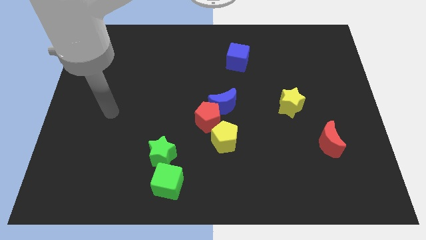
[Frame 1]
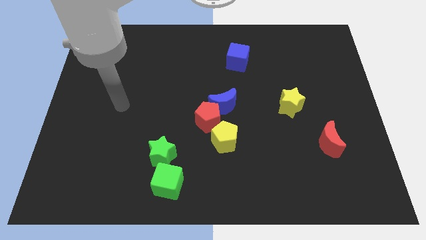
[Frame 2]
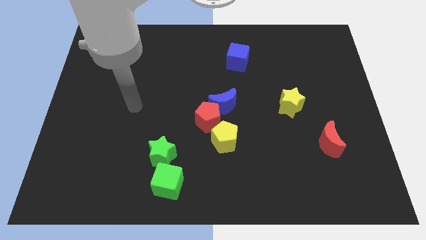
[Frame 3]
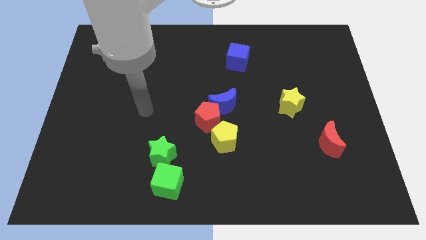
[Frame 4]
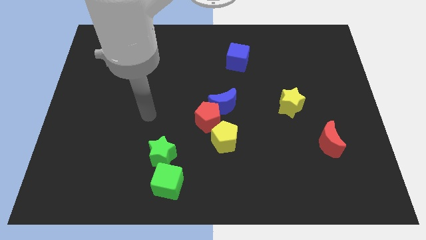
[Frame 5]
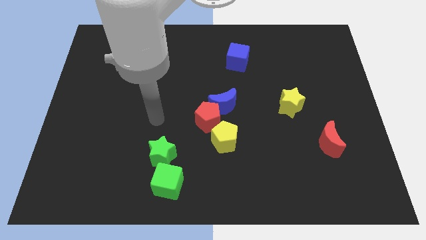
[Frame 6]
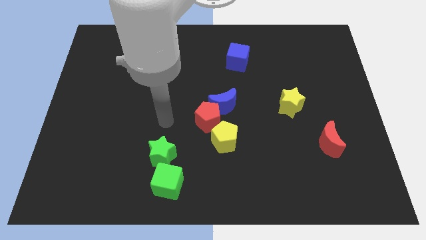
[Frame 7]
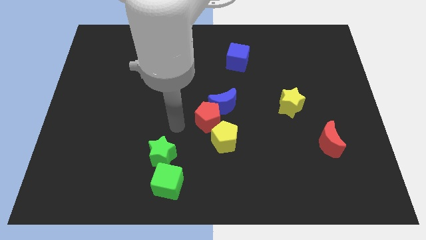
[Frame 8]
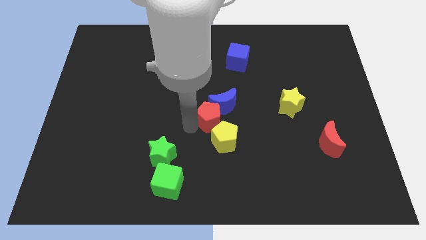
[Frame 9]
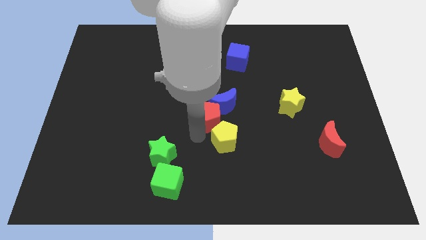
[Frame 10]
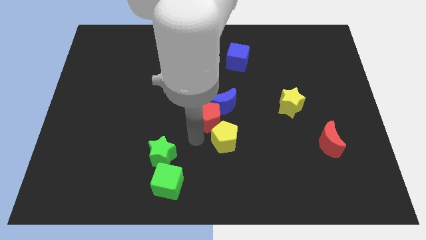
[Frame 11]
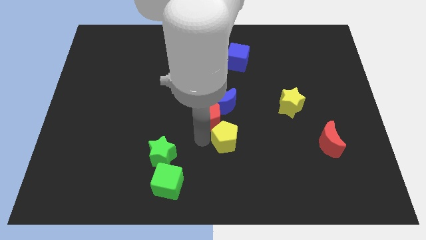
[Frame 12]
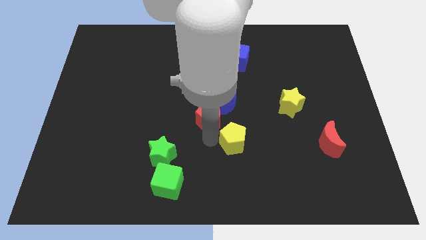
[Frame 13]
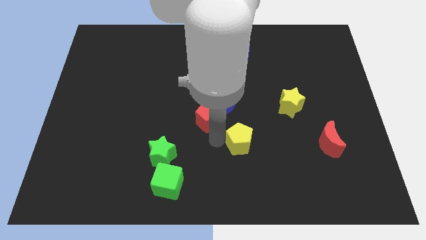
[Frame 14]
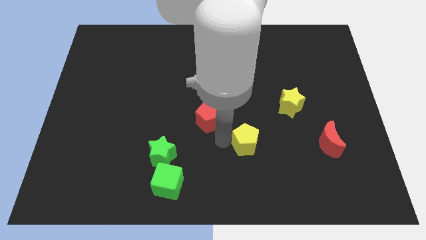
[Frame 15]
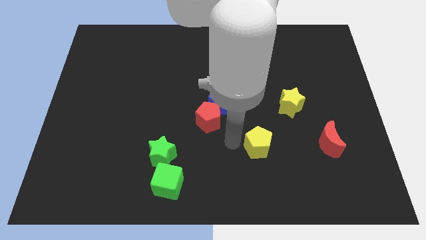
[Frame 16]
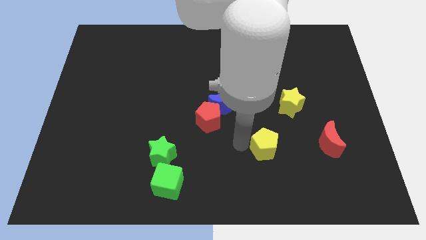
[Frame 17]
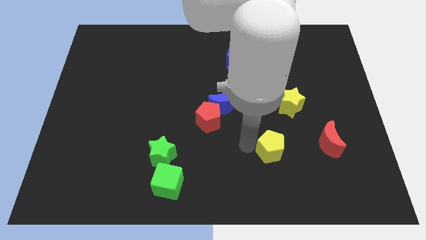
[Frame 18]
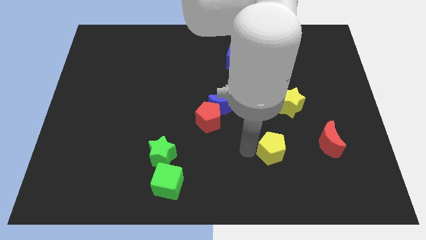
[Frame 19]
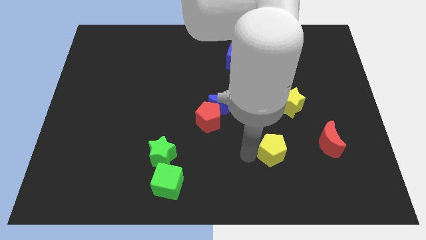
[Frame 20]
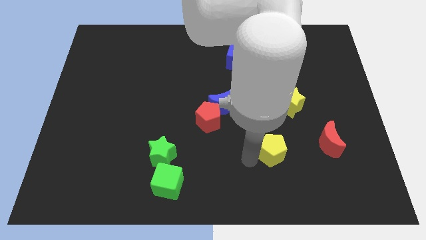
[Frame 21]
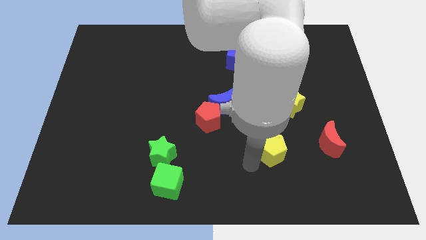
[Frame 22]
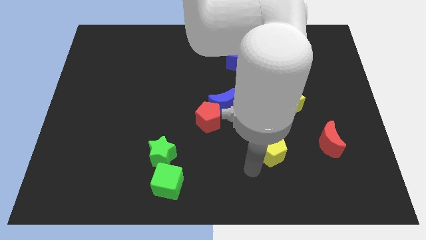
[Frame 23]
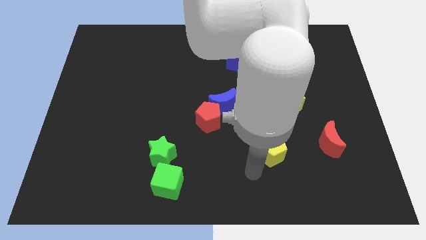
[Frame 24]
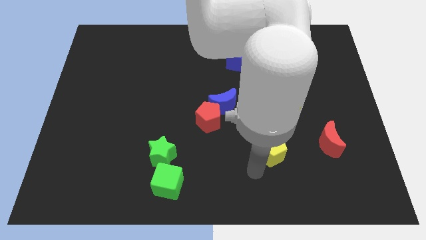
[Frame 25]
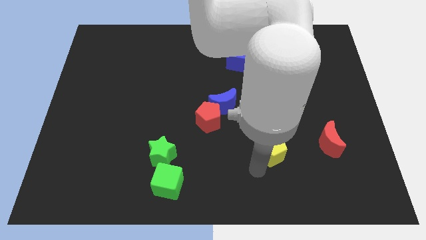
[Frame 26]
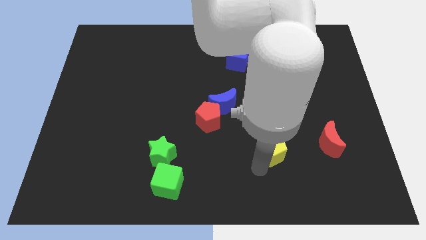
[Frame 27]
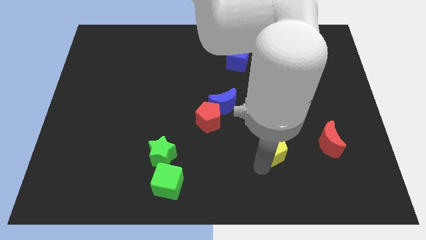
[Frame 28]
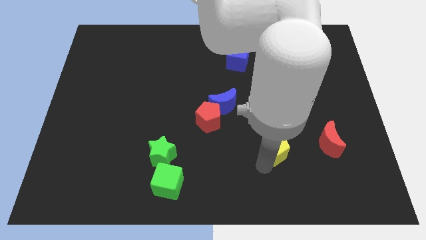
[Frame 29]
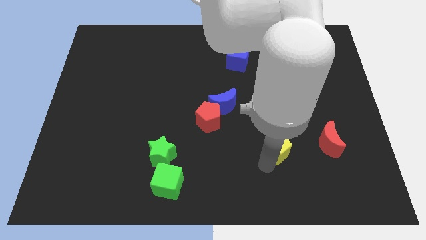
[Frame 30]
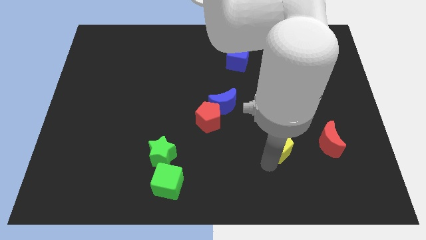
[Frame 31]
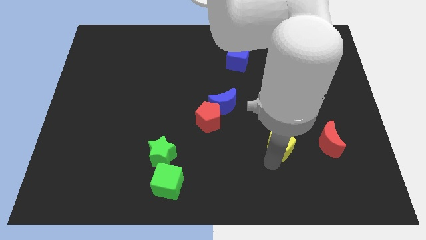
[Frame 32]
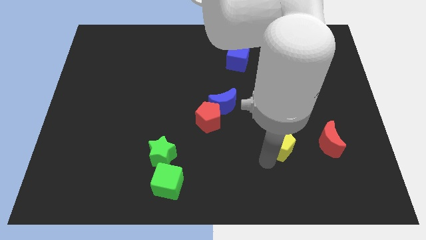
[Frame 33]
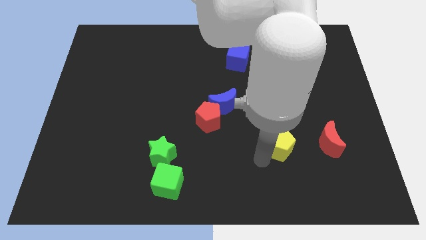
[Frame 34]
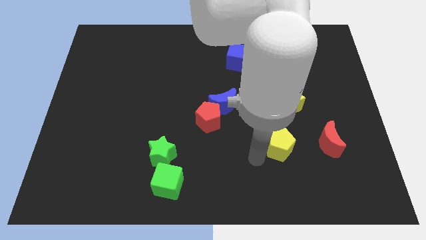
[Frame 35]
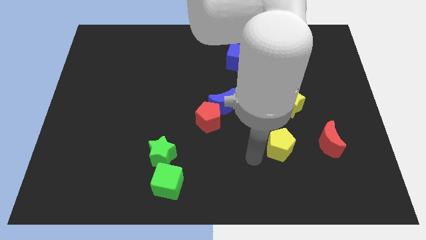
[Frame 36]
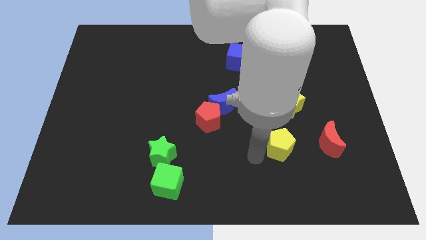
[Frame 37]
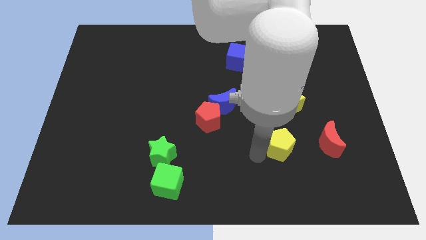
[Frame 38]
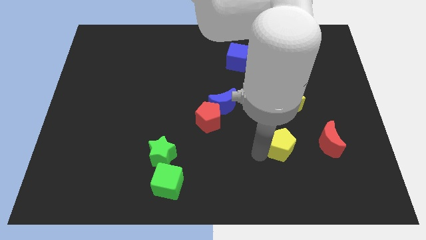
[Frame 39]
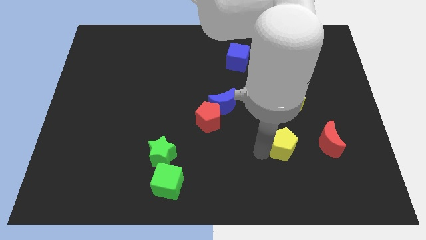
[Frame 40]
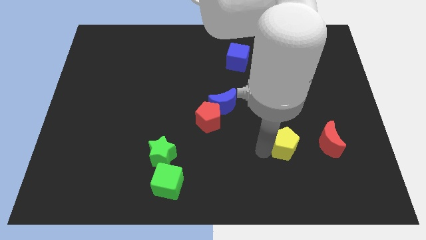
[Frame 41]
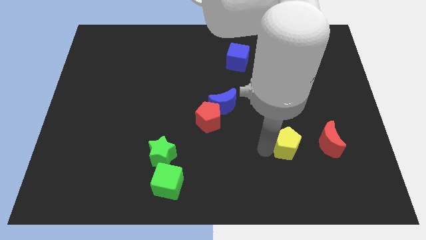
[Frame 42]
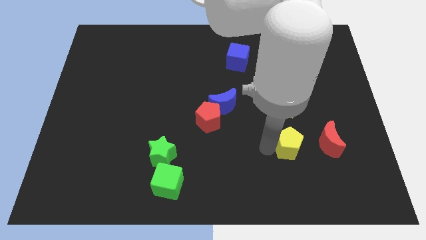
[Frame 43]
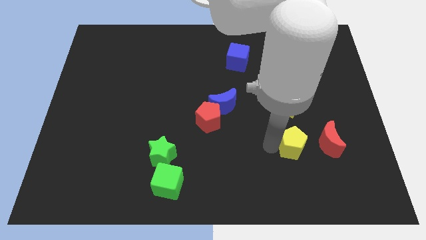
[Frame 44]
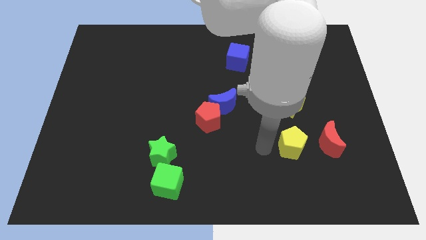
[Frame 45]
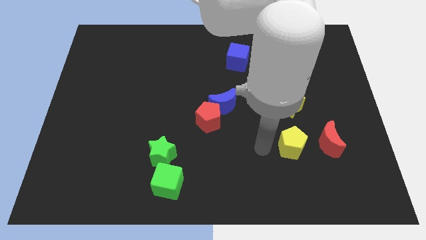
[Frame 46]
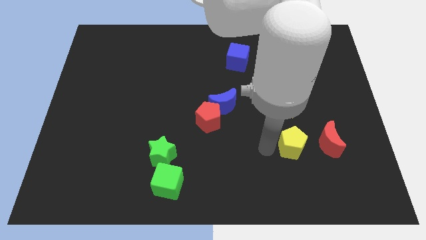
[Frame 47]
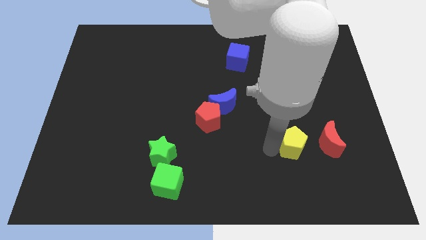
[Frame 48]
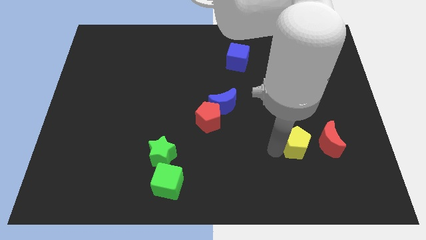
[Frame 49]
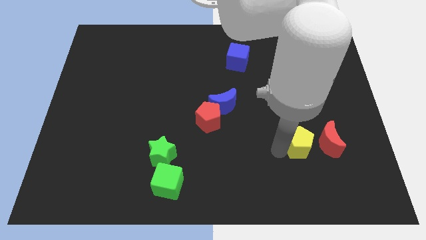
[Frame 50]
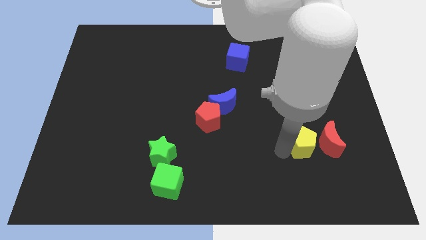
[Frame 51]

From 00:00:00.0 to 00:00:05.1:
put the yellow pentagon to the red moon

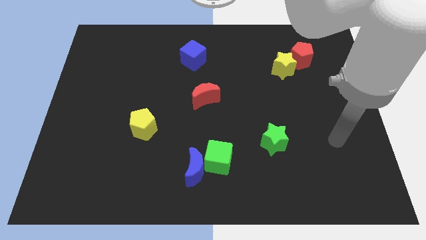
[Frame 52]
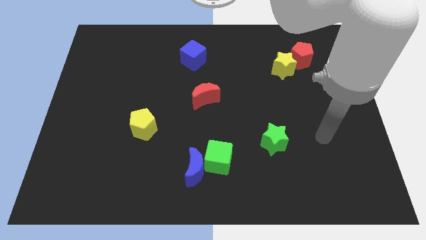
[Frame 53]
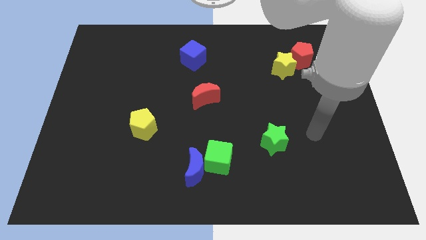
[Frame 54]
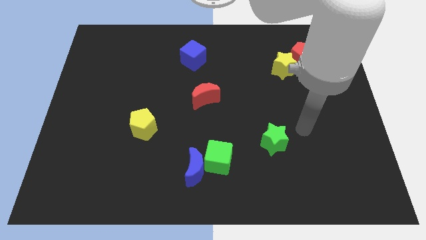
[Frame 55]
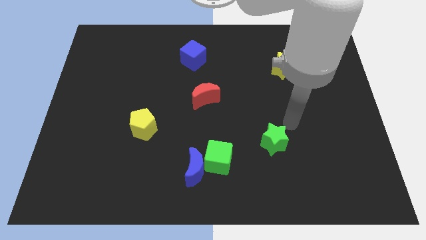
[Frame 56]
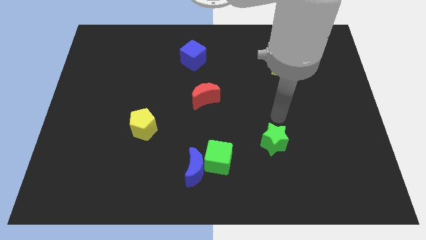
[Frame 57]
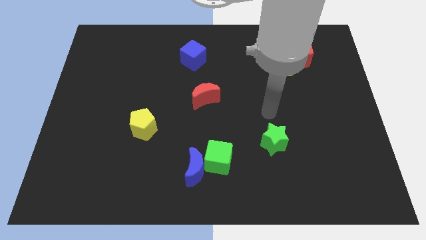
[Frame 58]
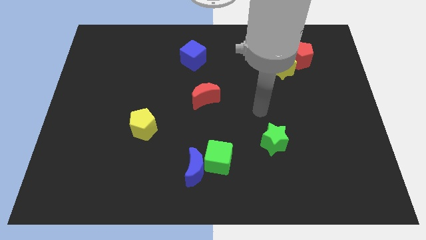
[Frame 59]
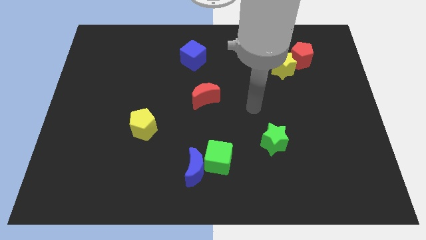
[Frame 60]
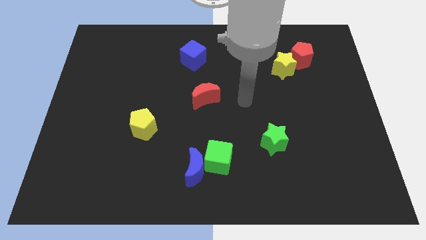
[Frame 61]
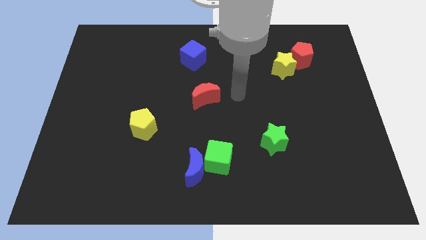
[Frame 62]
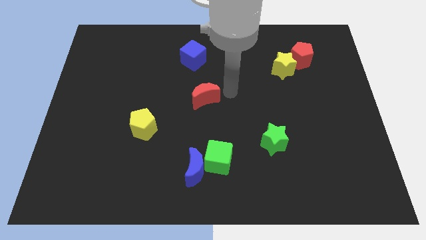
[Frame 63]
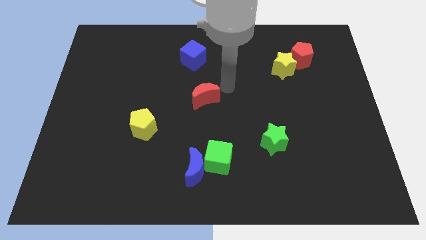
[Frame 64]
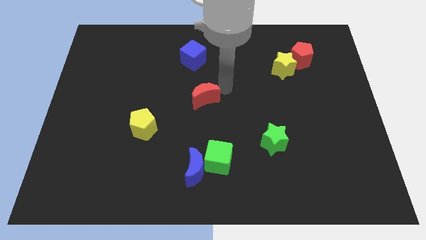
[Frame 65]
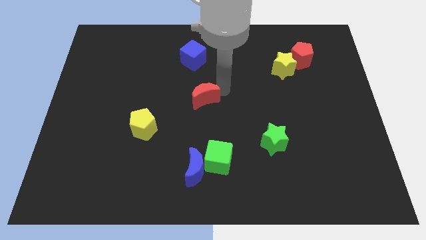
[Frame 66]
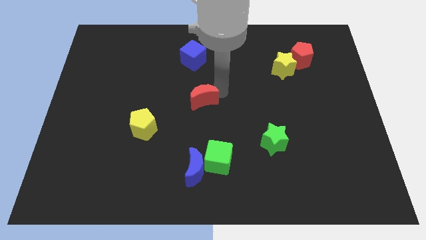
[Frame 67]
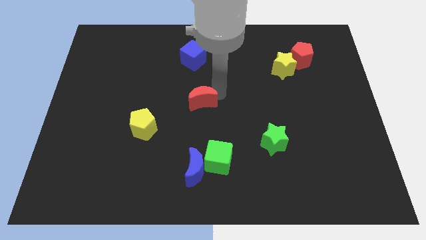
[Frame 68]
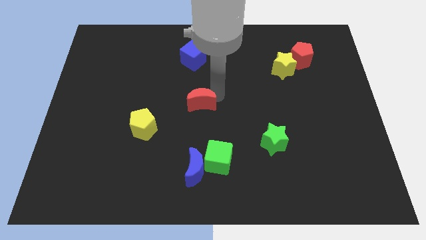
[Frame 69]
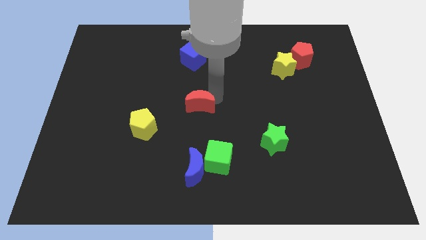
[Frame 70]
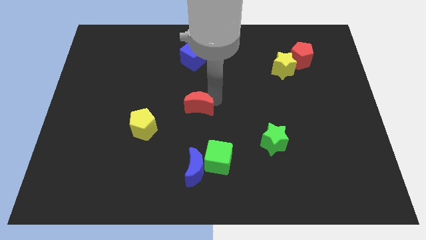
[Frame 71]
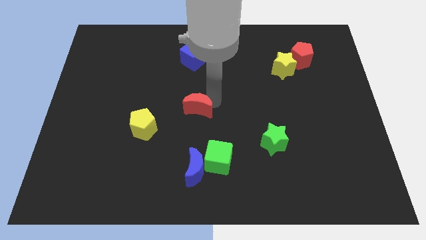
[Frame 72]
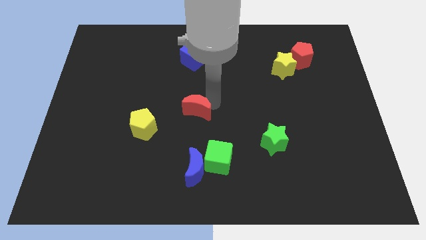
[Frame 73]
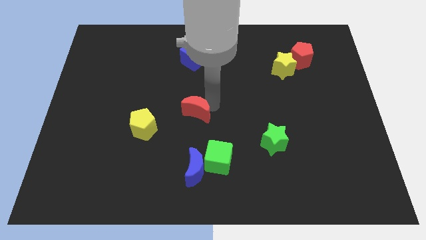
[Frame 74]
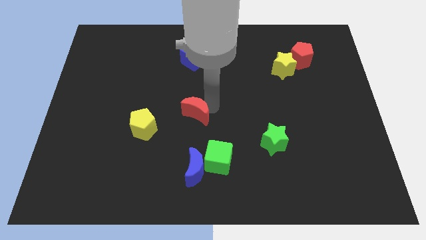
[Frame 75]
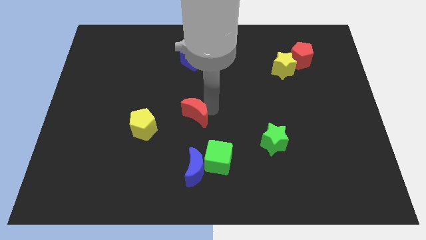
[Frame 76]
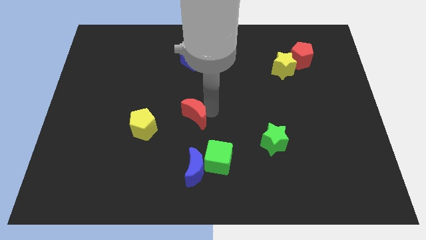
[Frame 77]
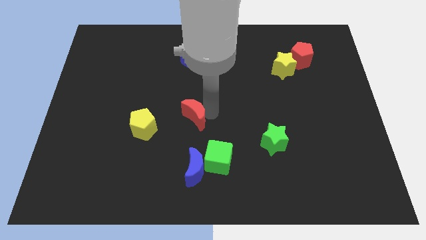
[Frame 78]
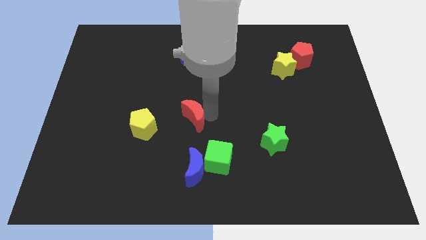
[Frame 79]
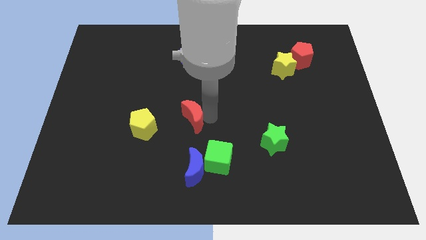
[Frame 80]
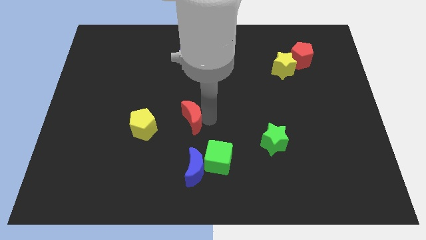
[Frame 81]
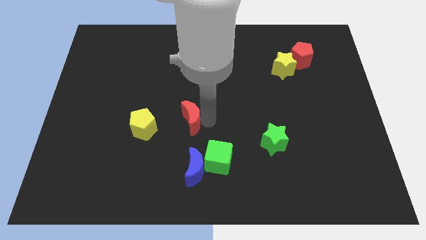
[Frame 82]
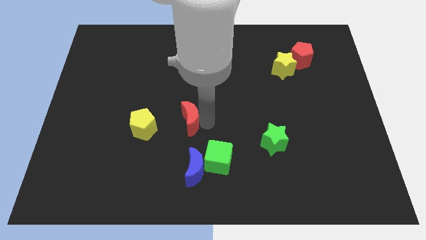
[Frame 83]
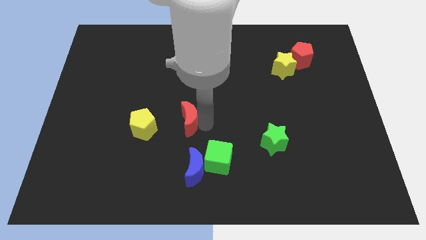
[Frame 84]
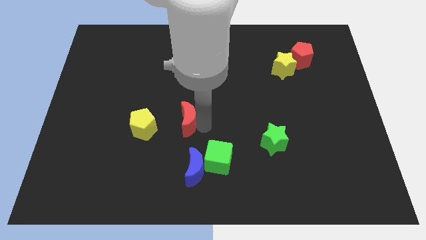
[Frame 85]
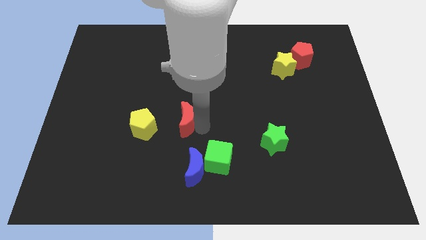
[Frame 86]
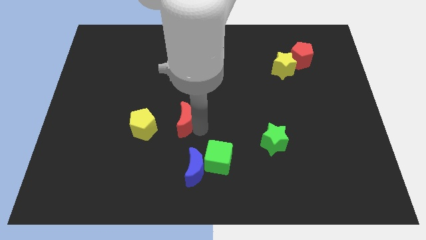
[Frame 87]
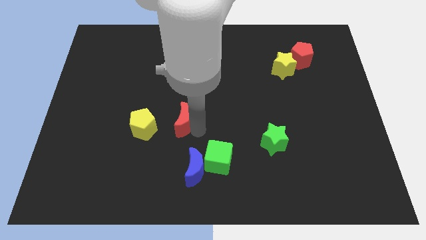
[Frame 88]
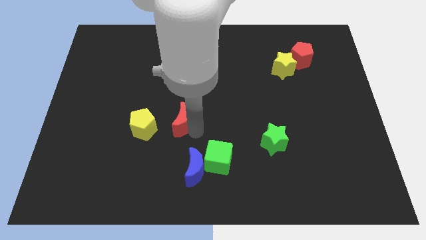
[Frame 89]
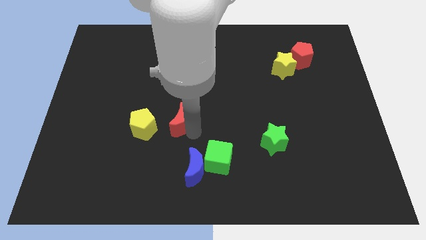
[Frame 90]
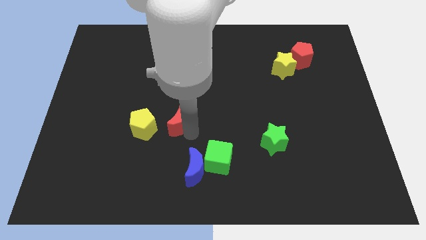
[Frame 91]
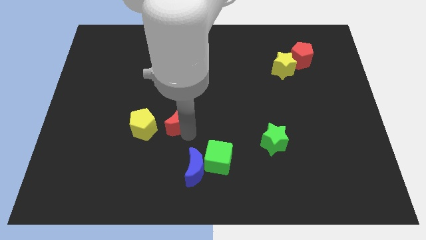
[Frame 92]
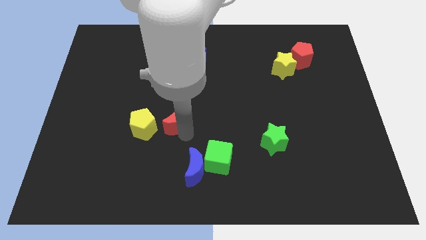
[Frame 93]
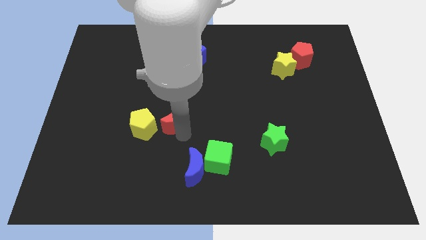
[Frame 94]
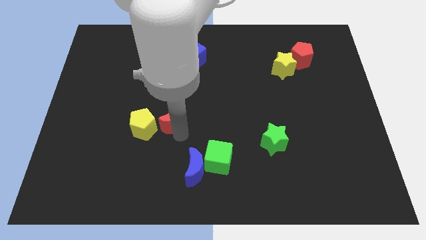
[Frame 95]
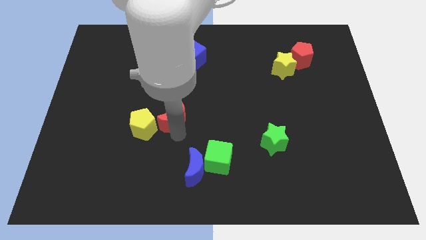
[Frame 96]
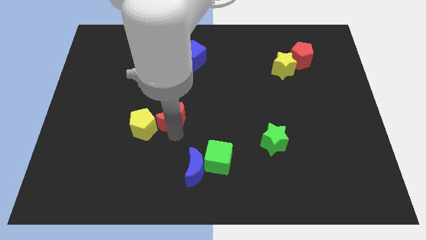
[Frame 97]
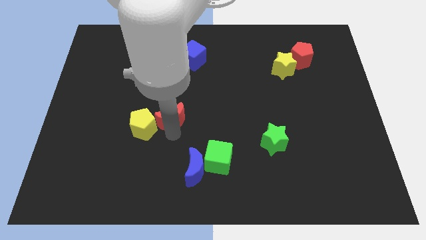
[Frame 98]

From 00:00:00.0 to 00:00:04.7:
put the red moon to the yellow pentagon
